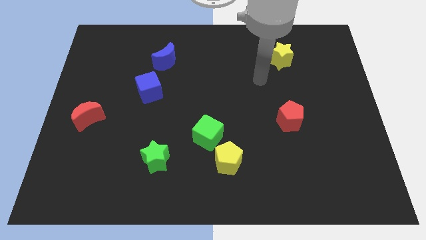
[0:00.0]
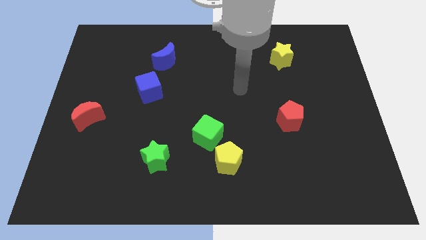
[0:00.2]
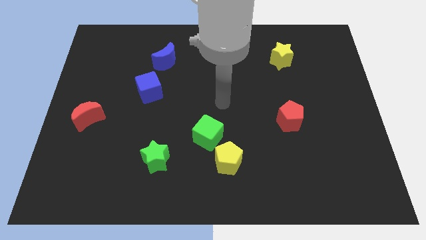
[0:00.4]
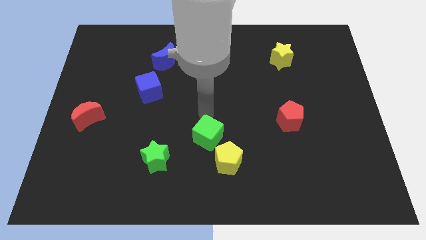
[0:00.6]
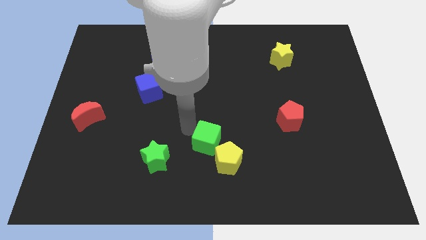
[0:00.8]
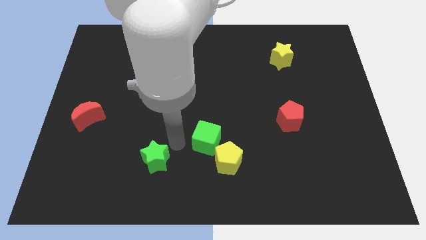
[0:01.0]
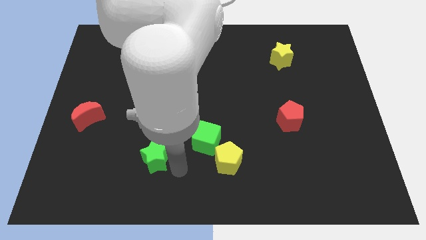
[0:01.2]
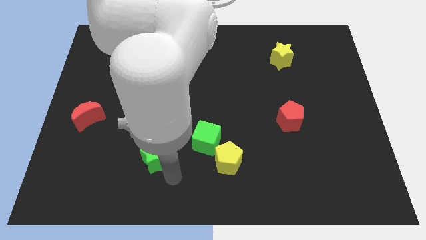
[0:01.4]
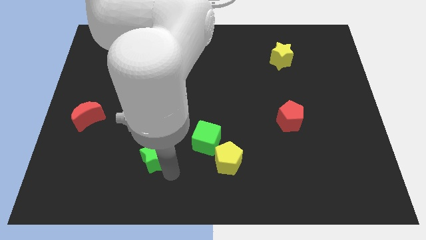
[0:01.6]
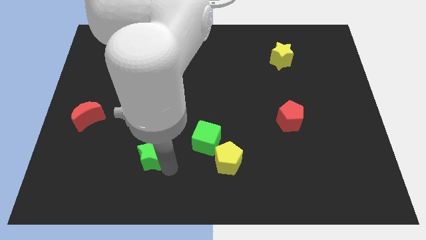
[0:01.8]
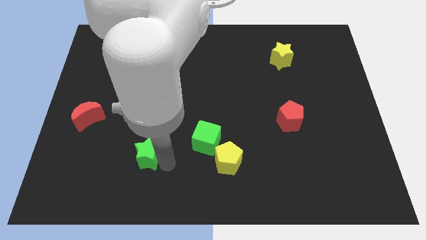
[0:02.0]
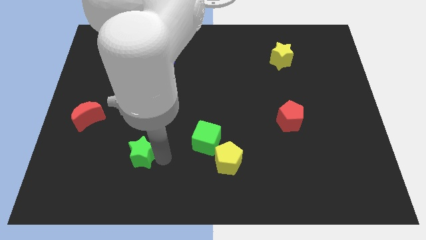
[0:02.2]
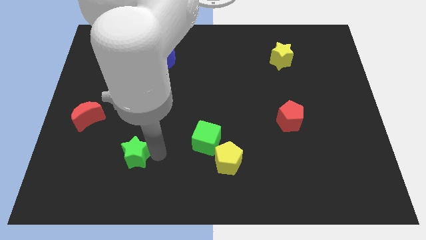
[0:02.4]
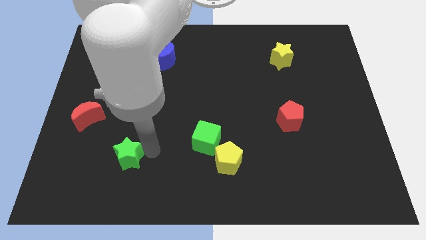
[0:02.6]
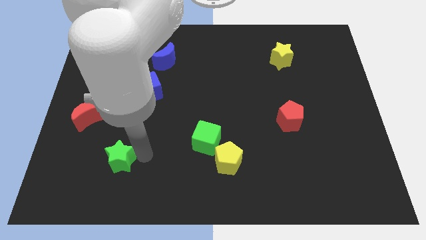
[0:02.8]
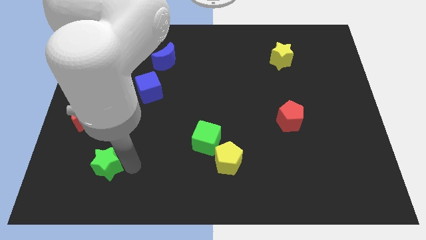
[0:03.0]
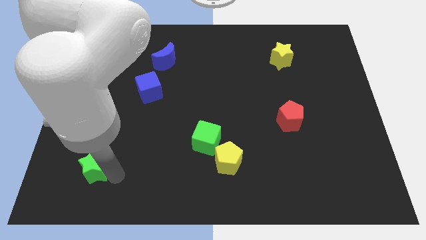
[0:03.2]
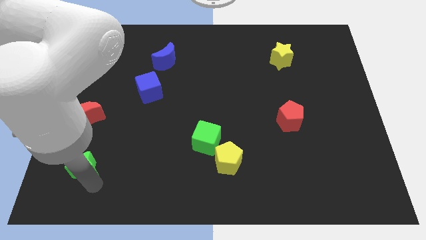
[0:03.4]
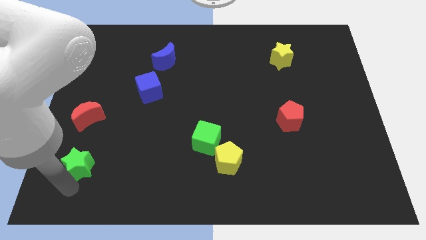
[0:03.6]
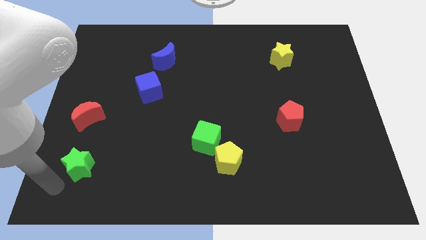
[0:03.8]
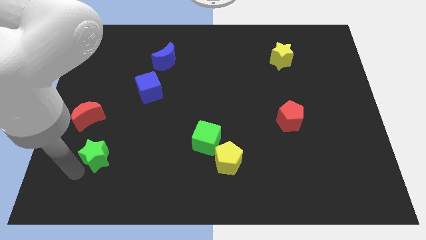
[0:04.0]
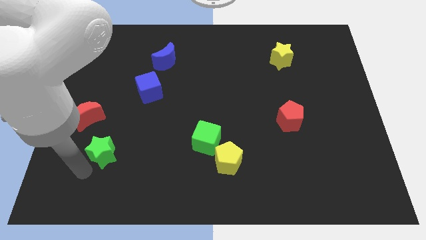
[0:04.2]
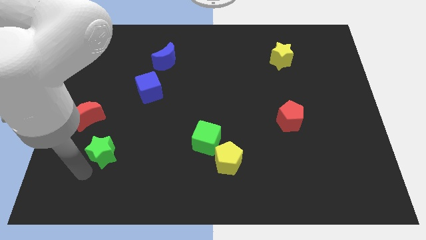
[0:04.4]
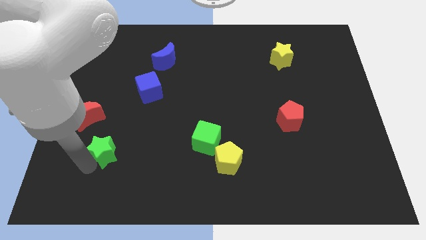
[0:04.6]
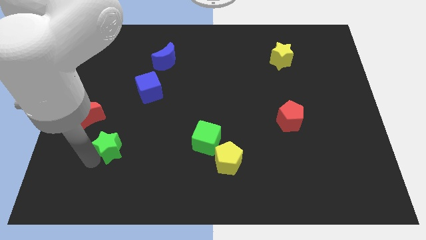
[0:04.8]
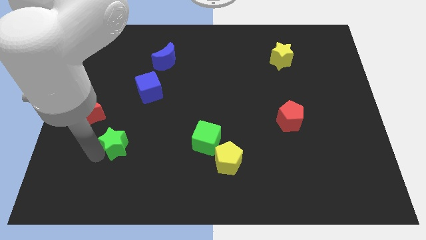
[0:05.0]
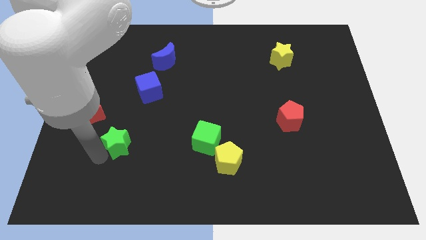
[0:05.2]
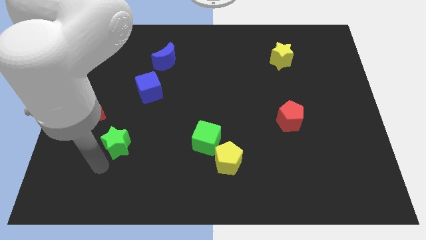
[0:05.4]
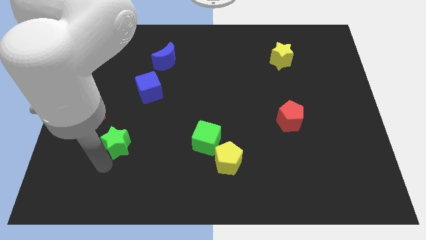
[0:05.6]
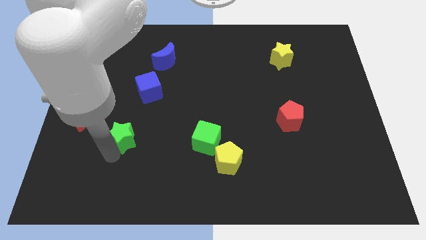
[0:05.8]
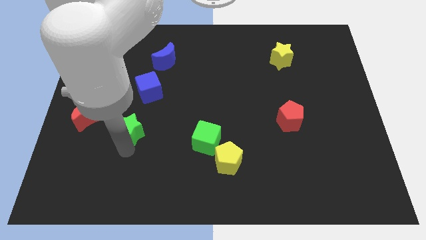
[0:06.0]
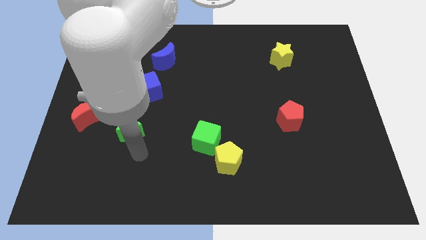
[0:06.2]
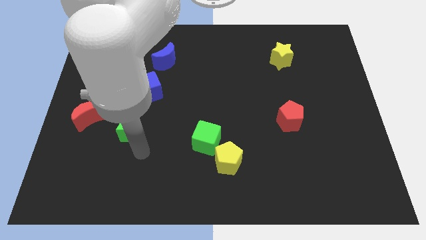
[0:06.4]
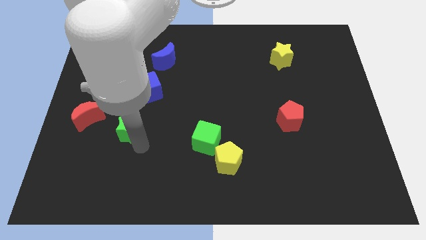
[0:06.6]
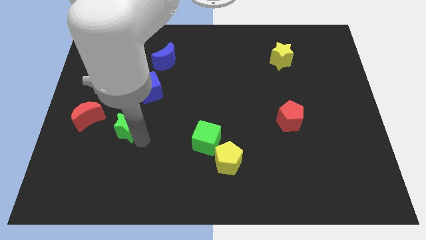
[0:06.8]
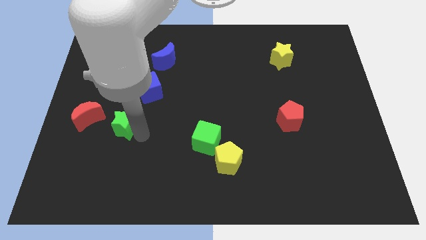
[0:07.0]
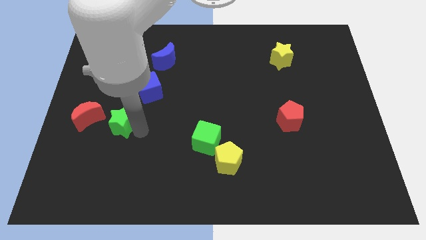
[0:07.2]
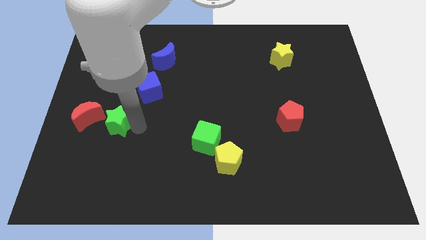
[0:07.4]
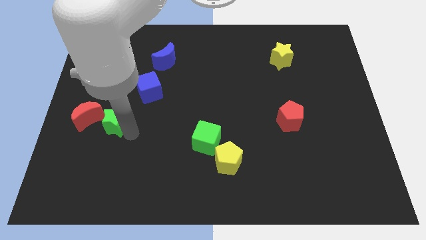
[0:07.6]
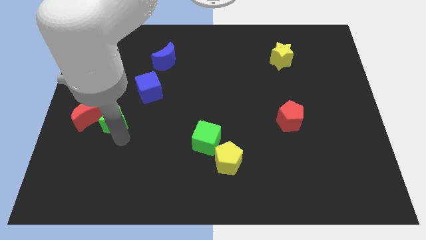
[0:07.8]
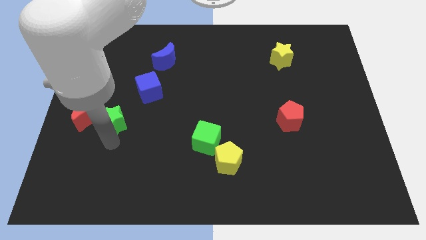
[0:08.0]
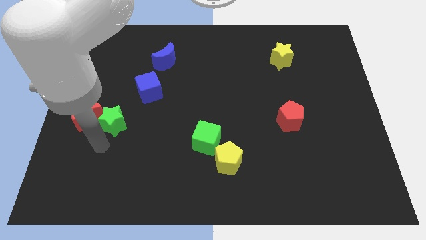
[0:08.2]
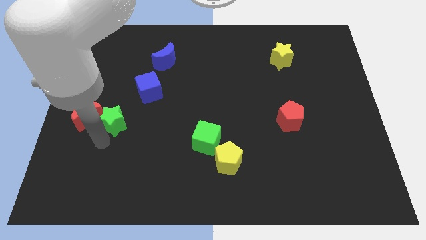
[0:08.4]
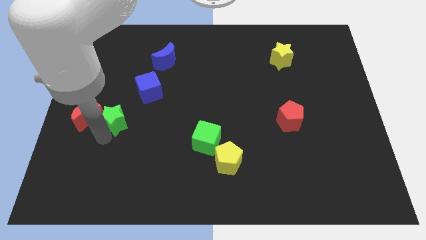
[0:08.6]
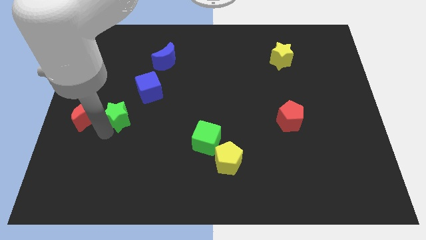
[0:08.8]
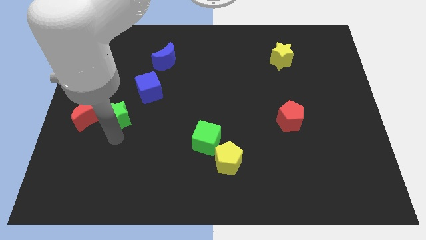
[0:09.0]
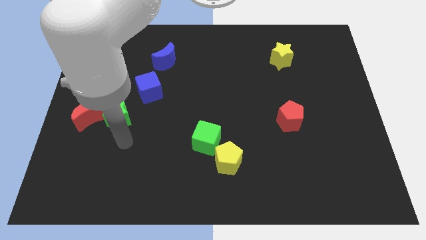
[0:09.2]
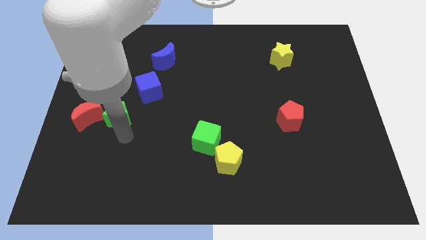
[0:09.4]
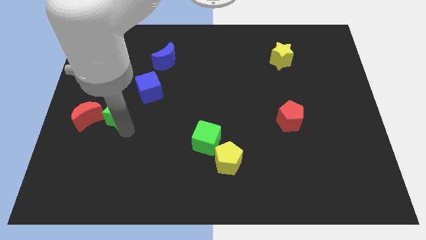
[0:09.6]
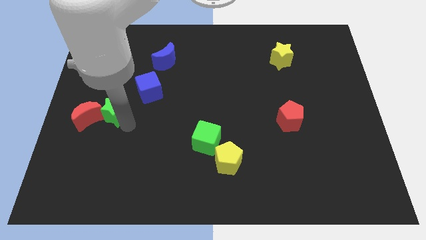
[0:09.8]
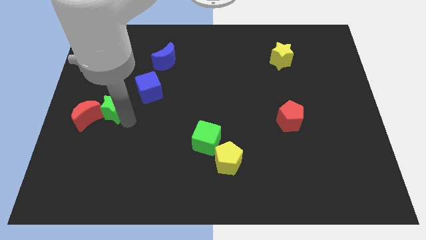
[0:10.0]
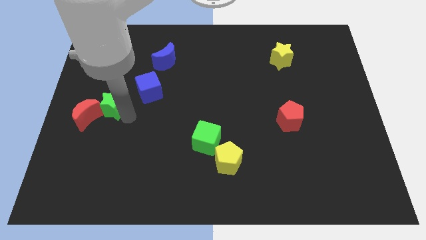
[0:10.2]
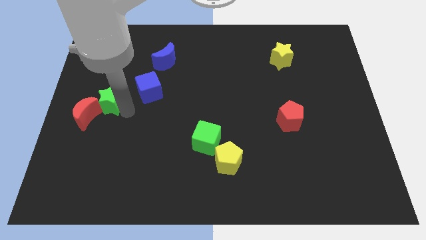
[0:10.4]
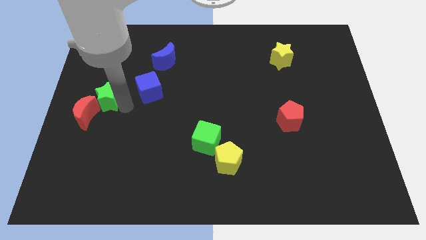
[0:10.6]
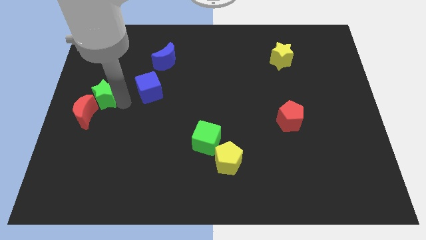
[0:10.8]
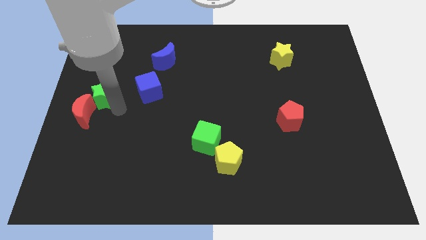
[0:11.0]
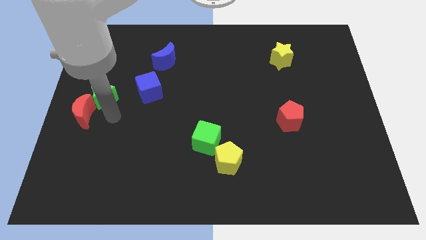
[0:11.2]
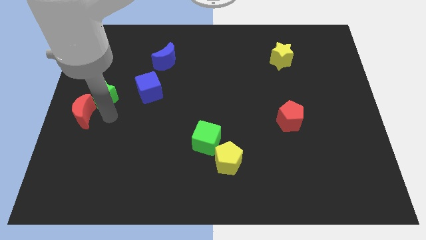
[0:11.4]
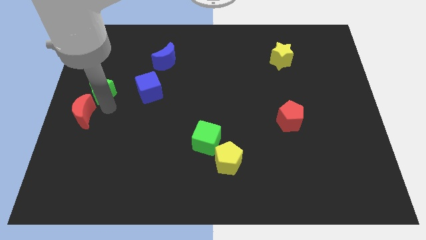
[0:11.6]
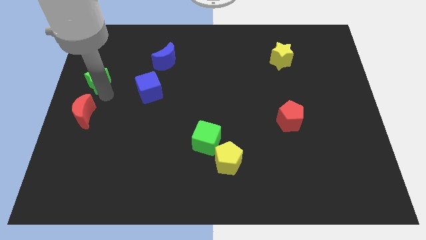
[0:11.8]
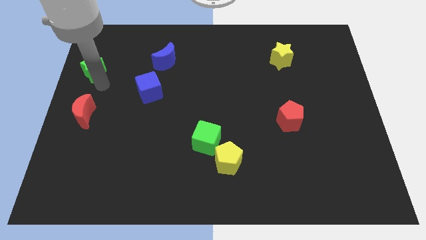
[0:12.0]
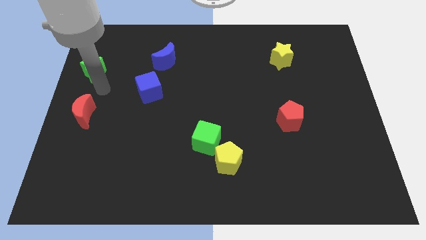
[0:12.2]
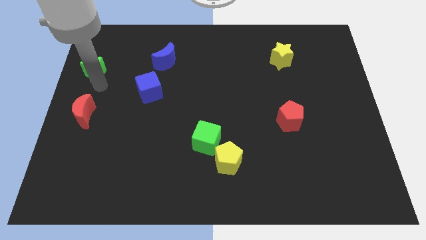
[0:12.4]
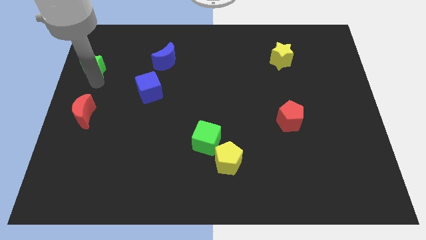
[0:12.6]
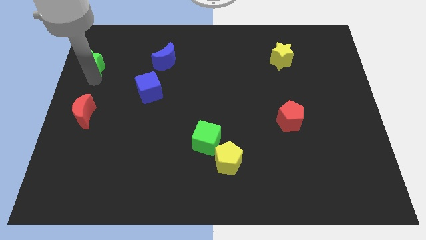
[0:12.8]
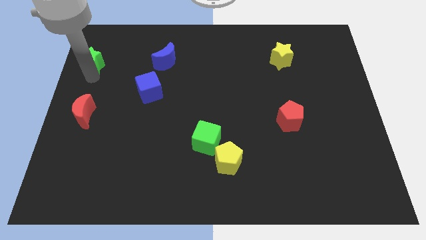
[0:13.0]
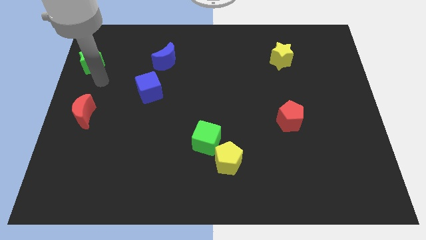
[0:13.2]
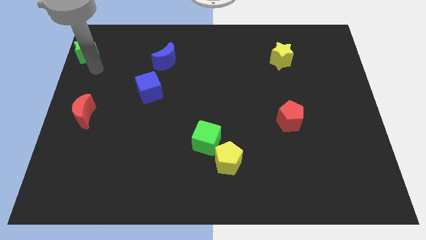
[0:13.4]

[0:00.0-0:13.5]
put the green star to the top left
